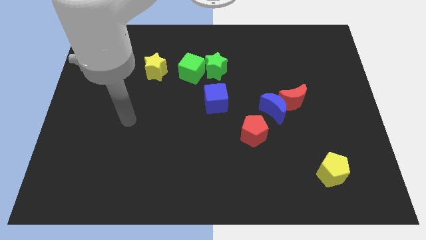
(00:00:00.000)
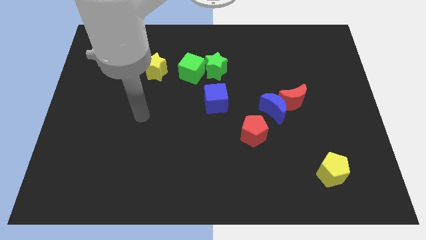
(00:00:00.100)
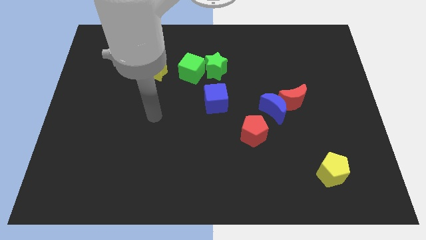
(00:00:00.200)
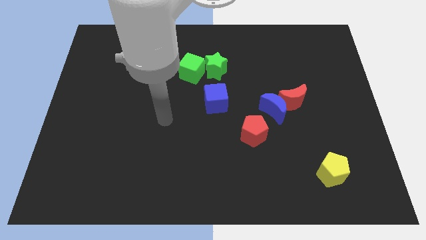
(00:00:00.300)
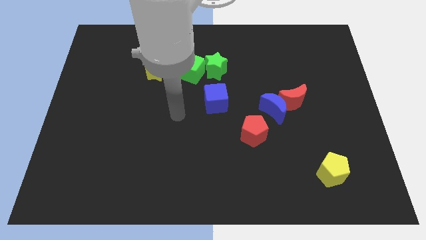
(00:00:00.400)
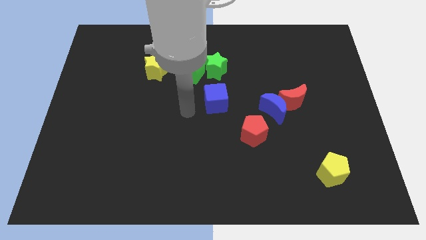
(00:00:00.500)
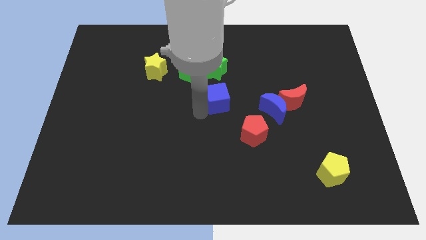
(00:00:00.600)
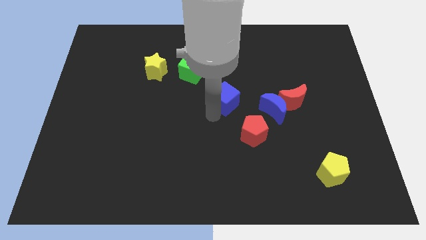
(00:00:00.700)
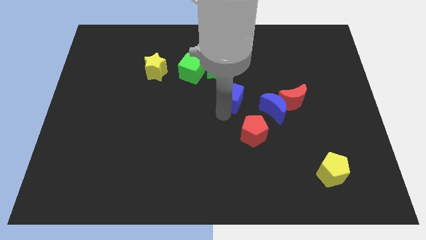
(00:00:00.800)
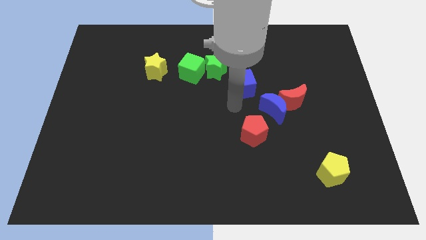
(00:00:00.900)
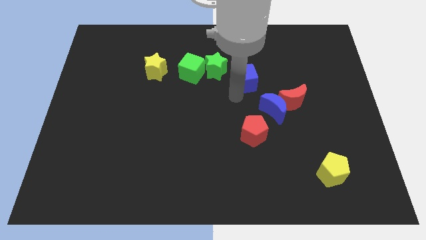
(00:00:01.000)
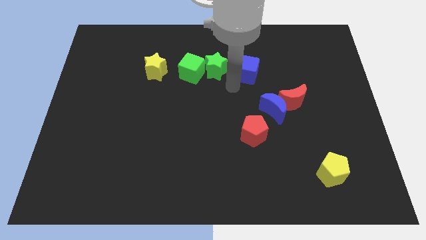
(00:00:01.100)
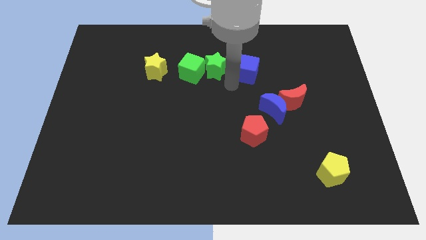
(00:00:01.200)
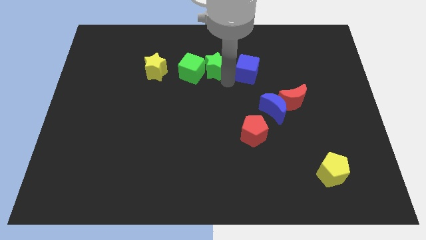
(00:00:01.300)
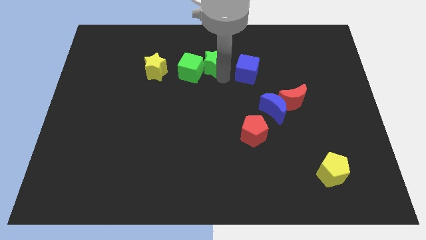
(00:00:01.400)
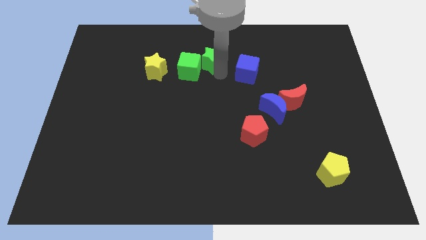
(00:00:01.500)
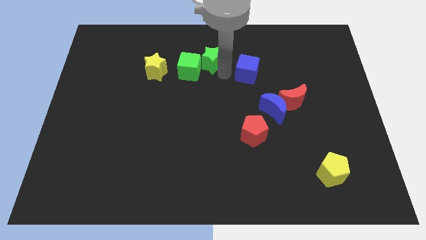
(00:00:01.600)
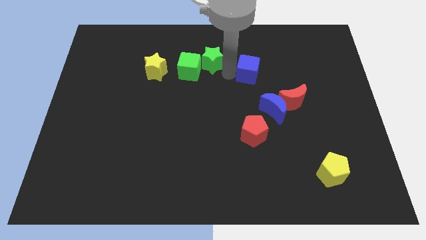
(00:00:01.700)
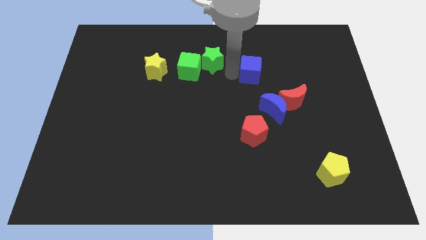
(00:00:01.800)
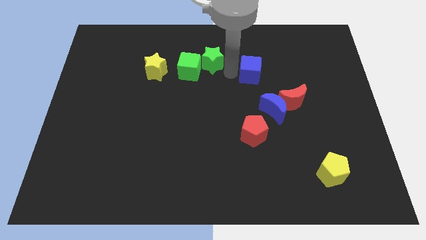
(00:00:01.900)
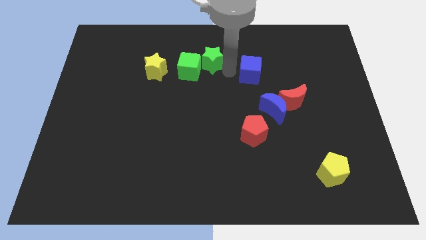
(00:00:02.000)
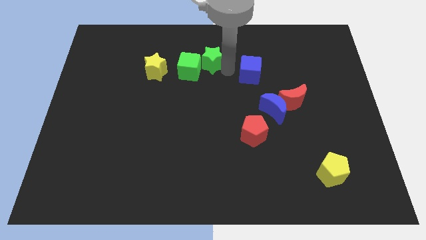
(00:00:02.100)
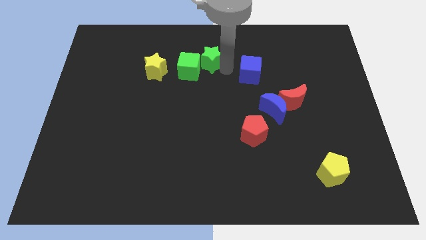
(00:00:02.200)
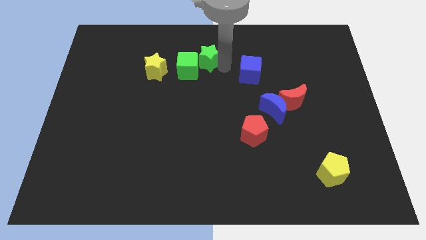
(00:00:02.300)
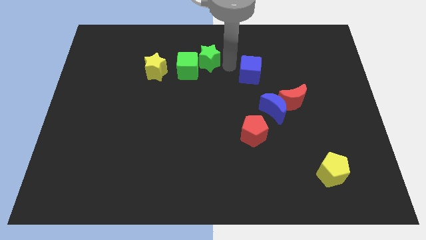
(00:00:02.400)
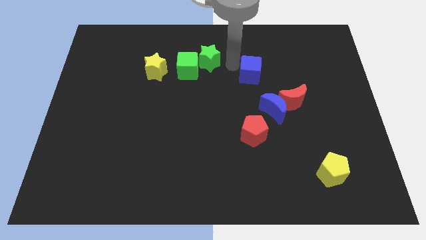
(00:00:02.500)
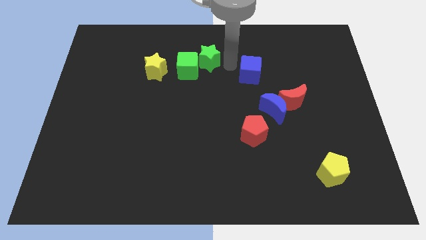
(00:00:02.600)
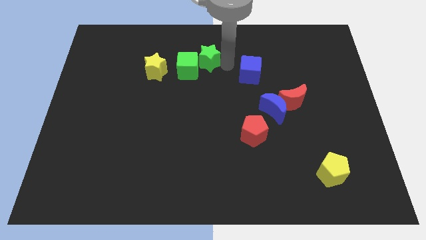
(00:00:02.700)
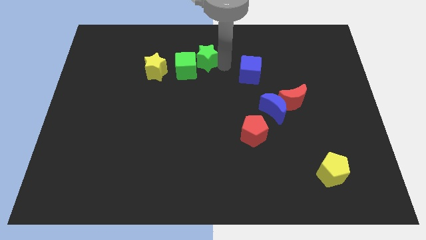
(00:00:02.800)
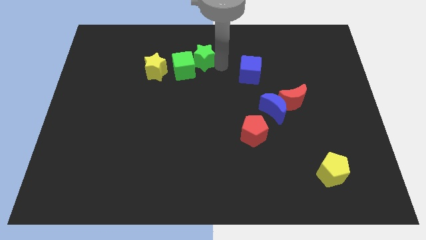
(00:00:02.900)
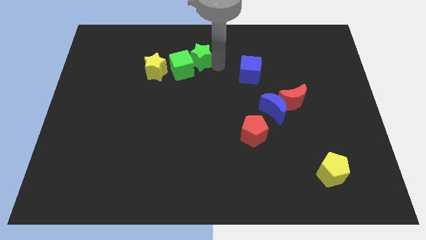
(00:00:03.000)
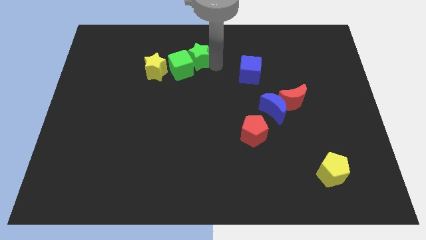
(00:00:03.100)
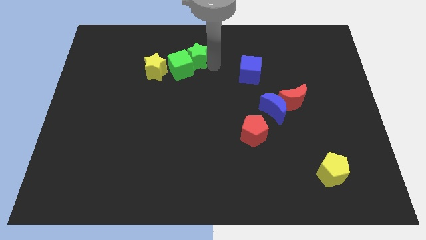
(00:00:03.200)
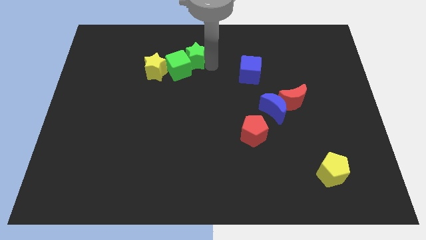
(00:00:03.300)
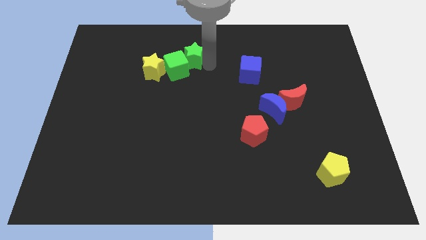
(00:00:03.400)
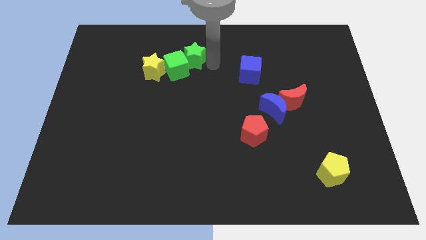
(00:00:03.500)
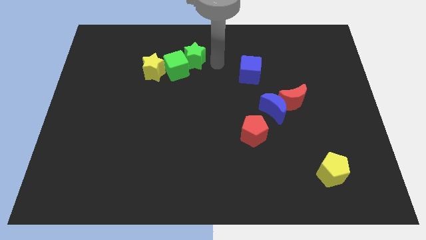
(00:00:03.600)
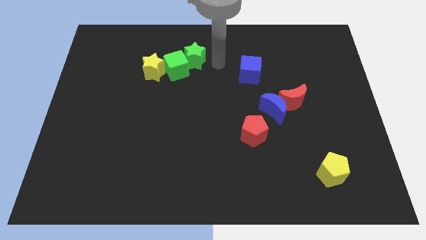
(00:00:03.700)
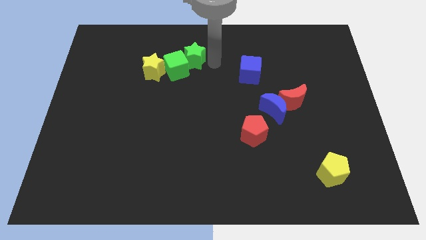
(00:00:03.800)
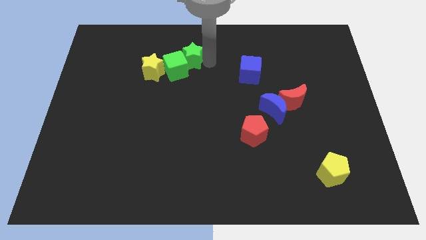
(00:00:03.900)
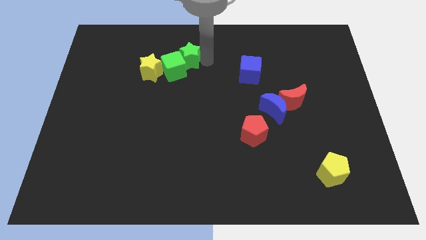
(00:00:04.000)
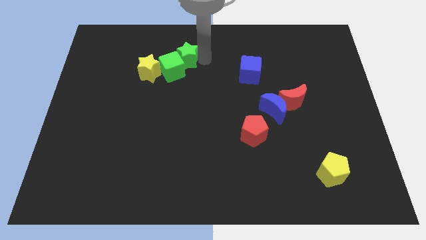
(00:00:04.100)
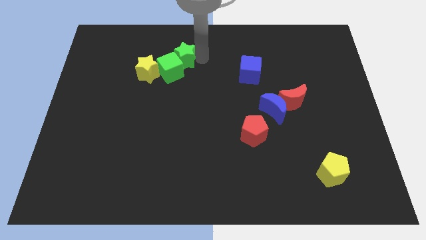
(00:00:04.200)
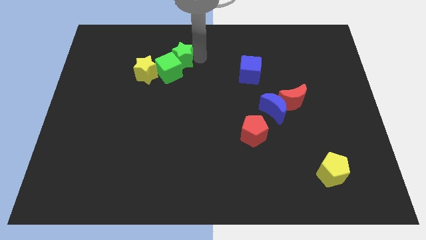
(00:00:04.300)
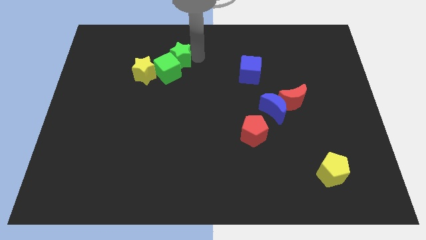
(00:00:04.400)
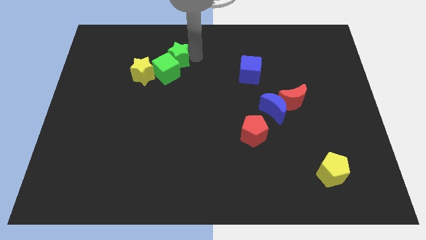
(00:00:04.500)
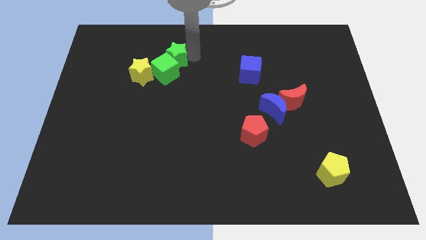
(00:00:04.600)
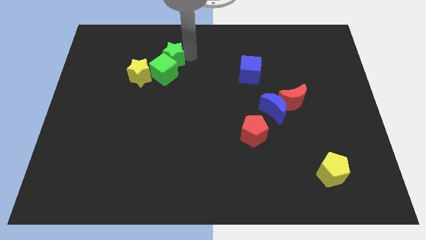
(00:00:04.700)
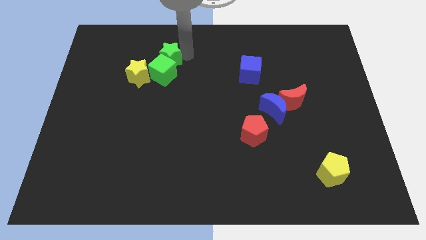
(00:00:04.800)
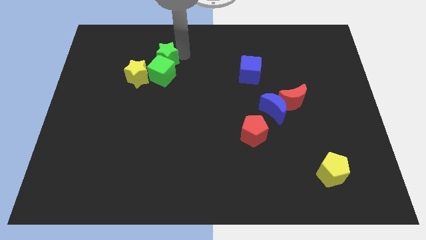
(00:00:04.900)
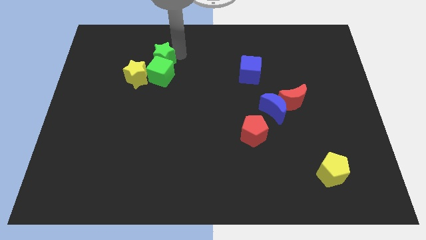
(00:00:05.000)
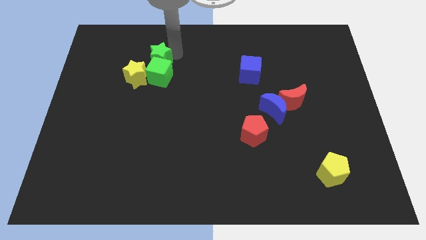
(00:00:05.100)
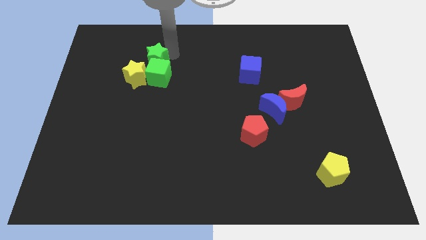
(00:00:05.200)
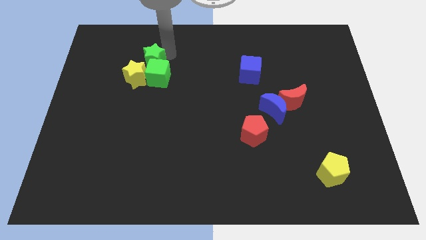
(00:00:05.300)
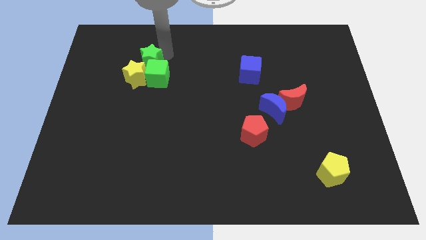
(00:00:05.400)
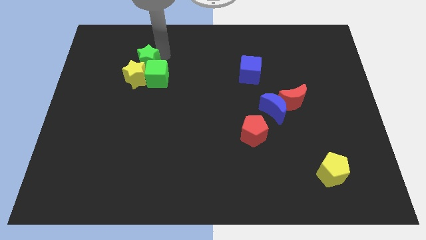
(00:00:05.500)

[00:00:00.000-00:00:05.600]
slide the green star close to the yellow star

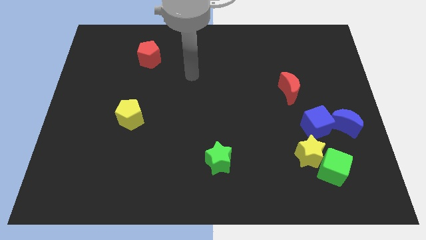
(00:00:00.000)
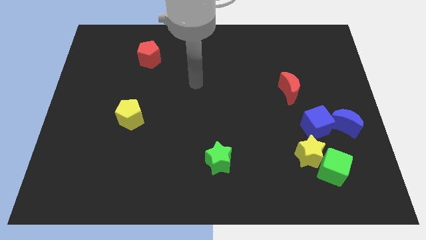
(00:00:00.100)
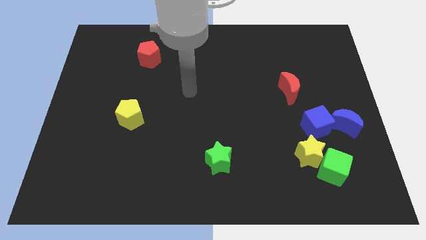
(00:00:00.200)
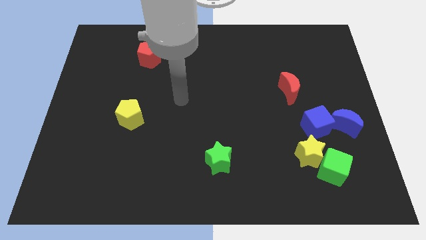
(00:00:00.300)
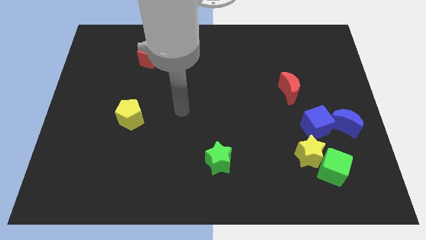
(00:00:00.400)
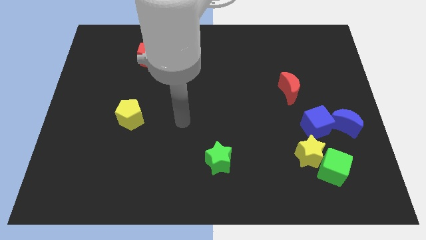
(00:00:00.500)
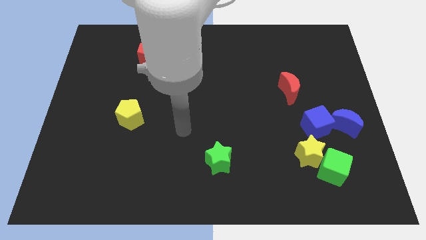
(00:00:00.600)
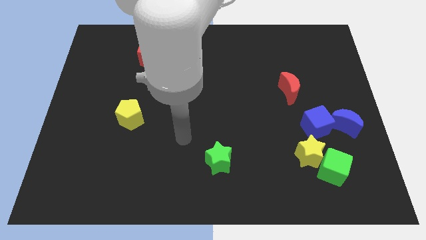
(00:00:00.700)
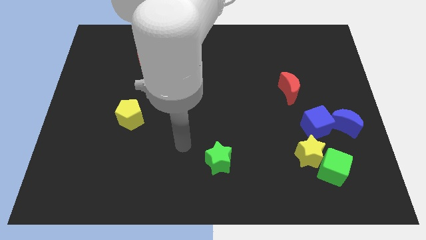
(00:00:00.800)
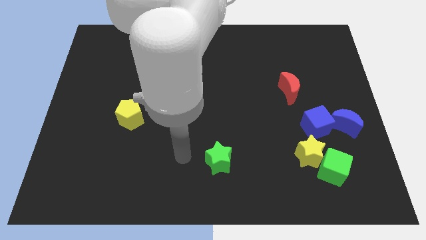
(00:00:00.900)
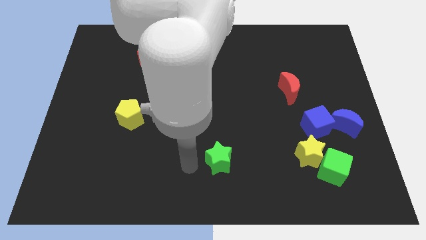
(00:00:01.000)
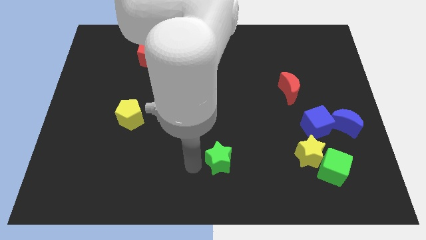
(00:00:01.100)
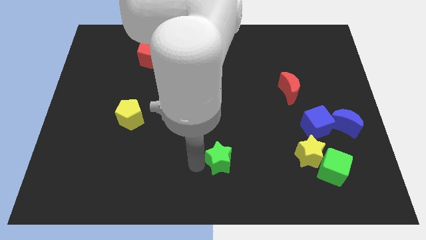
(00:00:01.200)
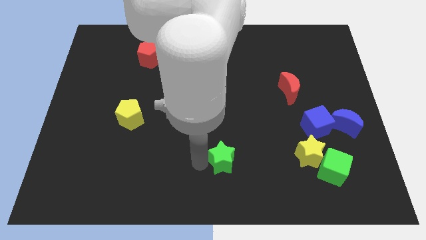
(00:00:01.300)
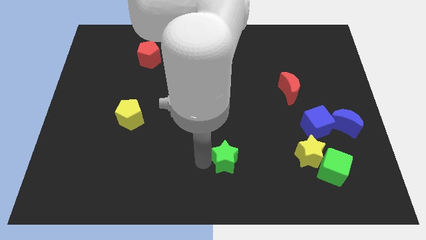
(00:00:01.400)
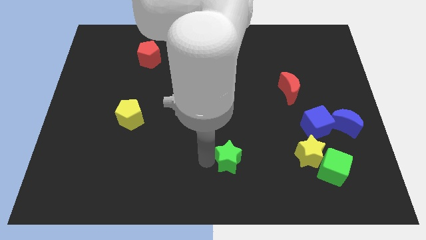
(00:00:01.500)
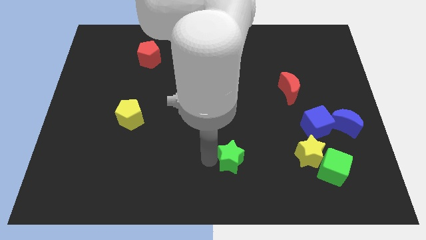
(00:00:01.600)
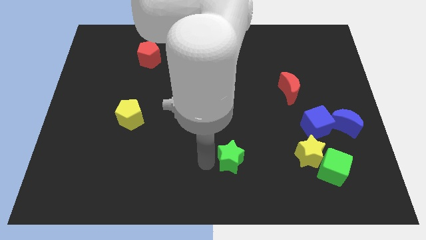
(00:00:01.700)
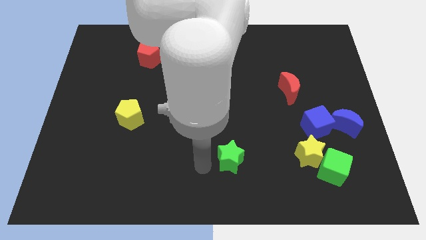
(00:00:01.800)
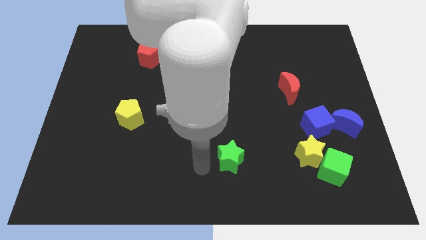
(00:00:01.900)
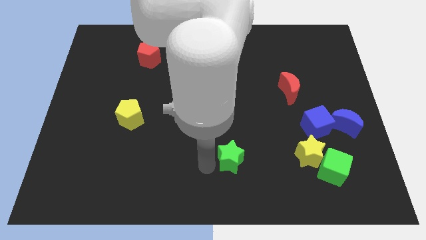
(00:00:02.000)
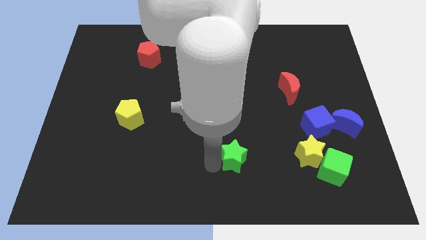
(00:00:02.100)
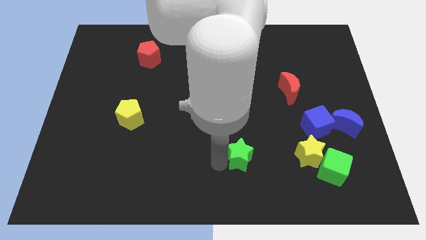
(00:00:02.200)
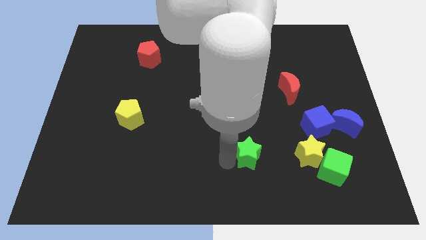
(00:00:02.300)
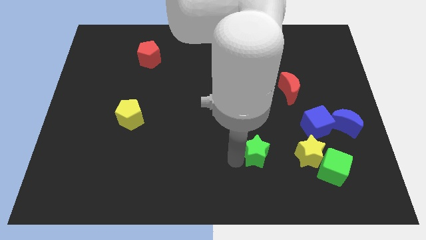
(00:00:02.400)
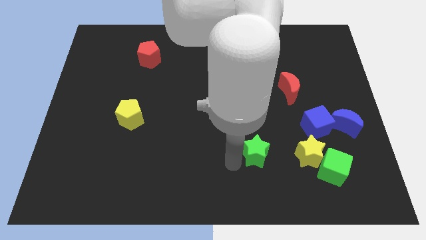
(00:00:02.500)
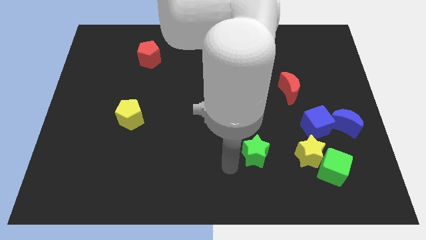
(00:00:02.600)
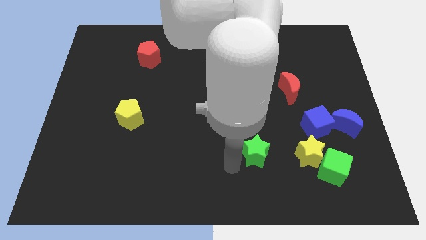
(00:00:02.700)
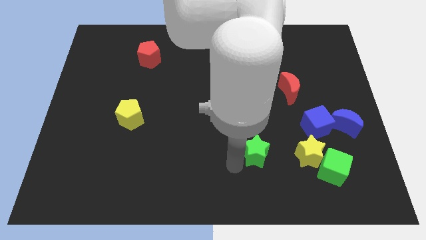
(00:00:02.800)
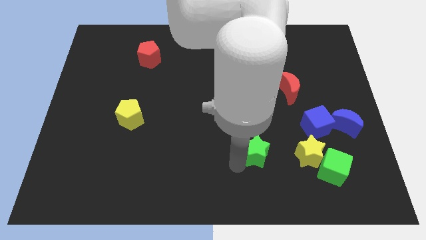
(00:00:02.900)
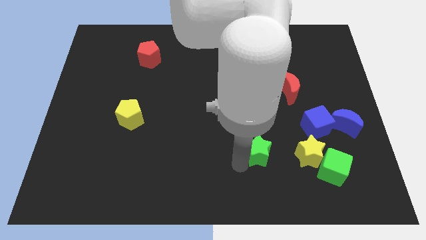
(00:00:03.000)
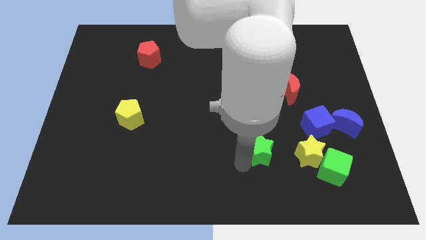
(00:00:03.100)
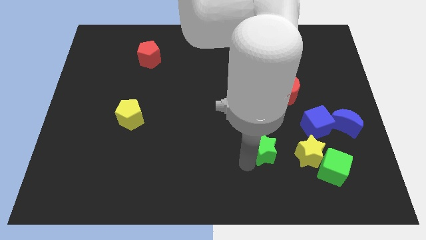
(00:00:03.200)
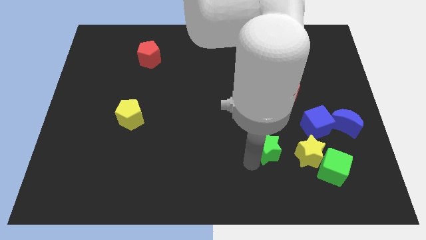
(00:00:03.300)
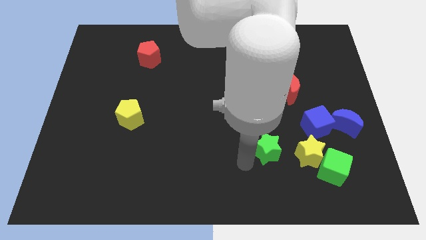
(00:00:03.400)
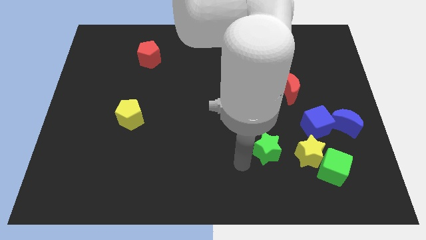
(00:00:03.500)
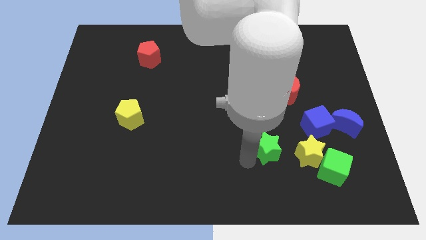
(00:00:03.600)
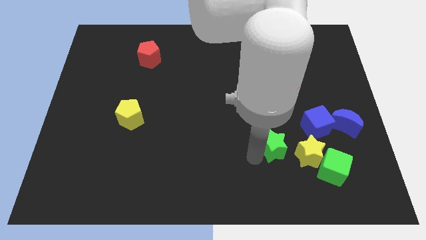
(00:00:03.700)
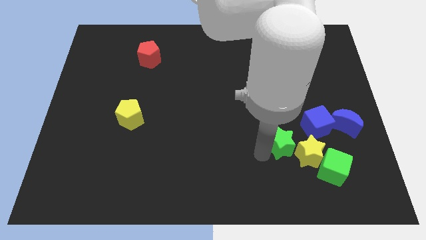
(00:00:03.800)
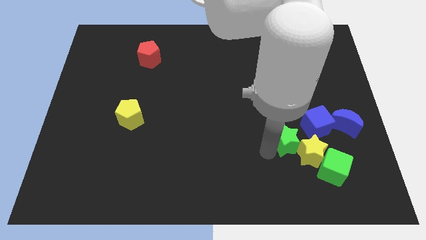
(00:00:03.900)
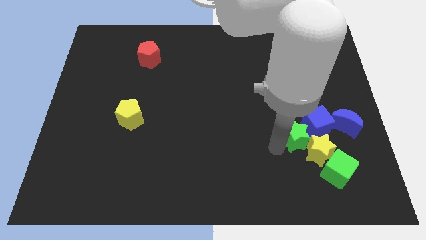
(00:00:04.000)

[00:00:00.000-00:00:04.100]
put the green star close to the blue cube
